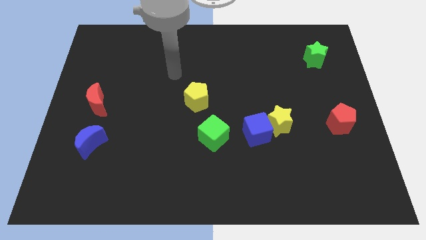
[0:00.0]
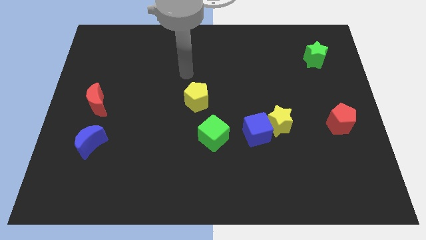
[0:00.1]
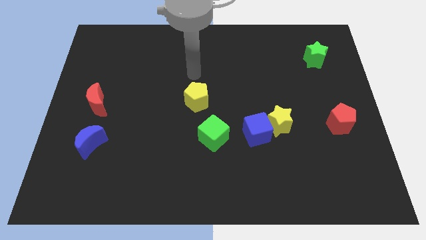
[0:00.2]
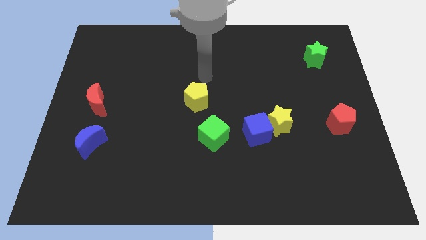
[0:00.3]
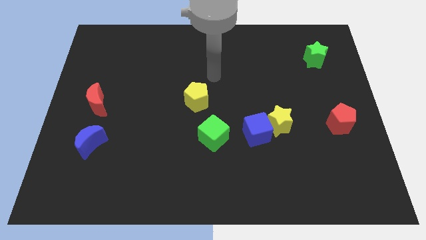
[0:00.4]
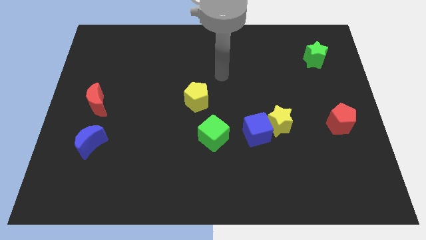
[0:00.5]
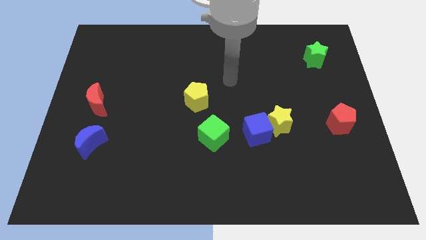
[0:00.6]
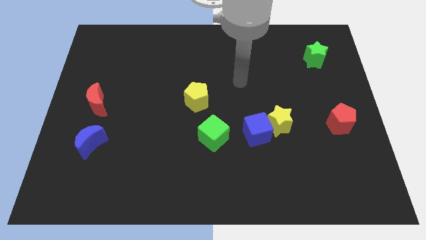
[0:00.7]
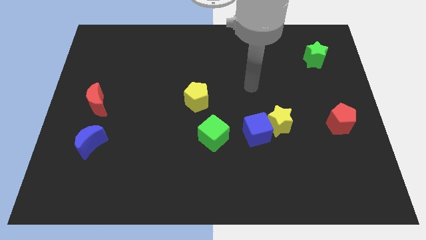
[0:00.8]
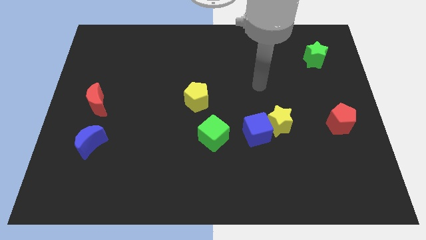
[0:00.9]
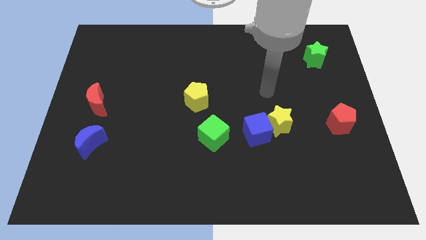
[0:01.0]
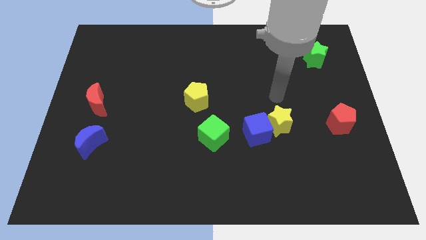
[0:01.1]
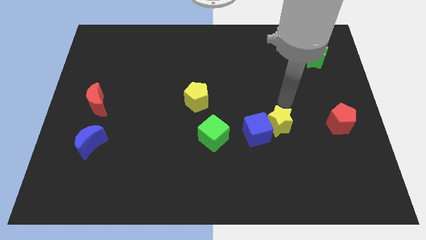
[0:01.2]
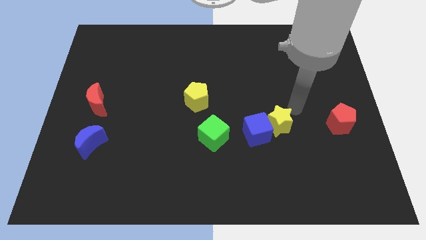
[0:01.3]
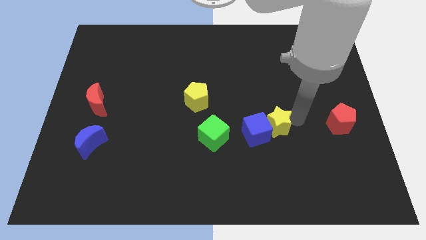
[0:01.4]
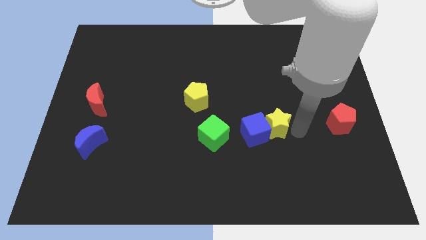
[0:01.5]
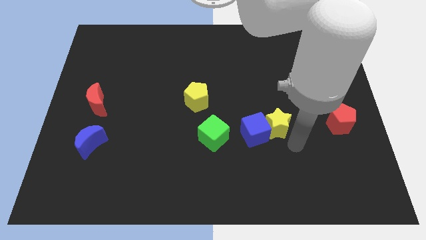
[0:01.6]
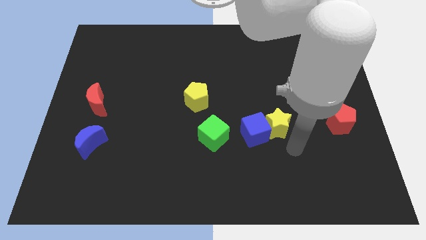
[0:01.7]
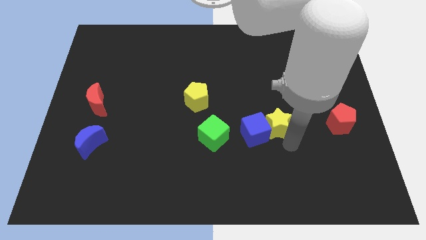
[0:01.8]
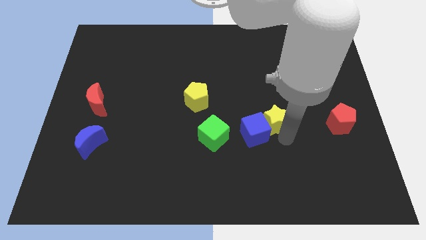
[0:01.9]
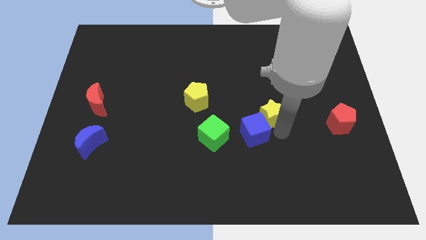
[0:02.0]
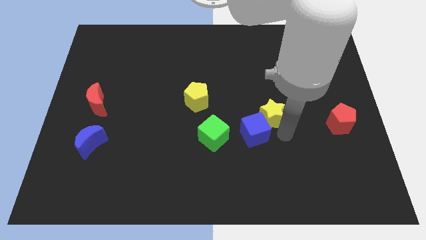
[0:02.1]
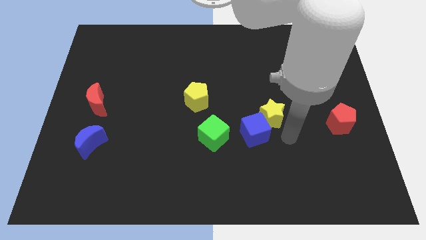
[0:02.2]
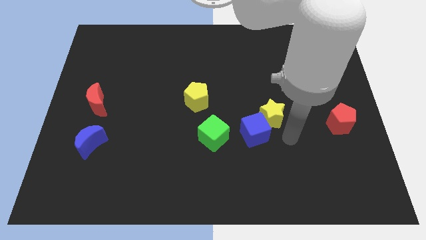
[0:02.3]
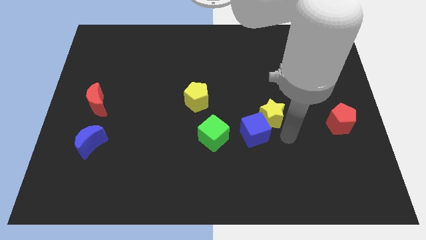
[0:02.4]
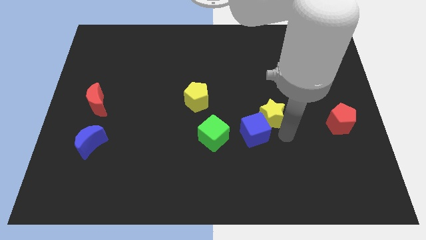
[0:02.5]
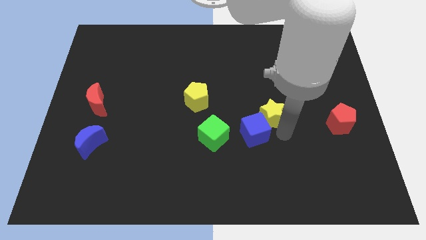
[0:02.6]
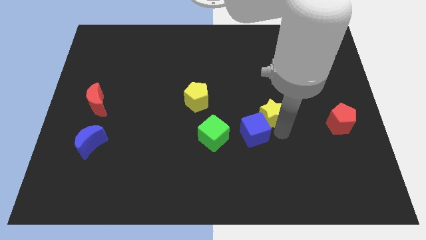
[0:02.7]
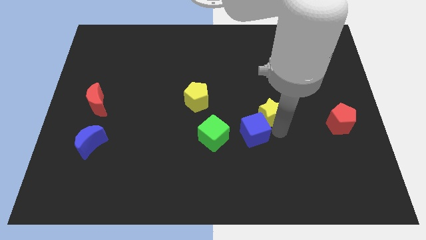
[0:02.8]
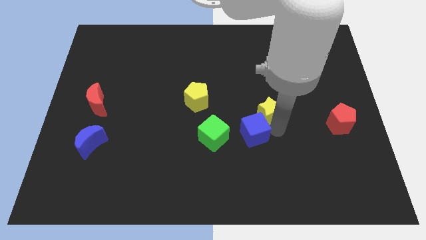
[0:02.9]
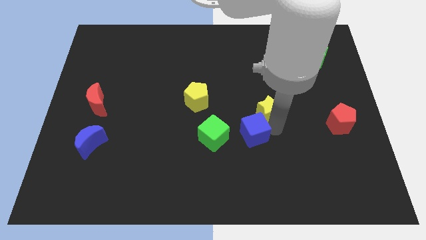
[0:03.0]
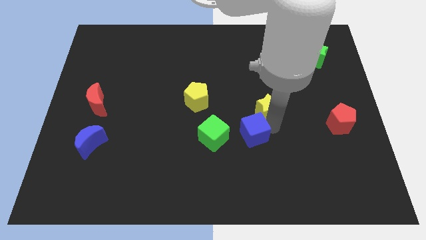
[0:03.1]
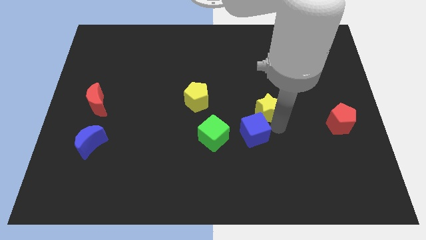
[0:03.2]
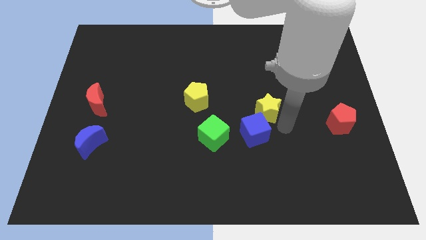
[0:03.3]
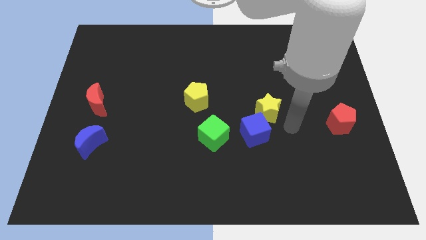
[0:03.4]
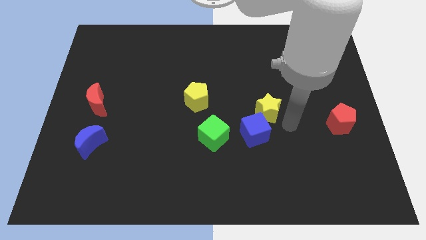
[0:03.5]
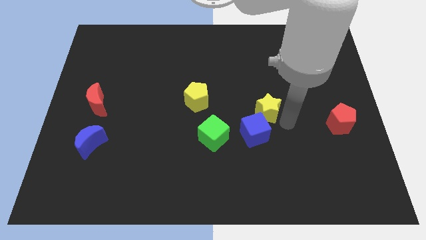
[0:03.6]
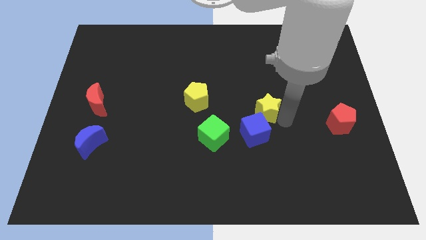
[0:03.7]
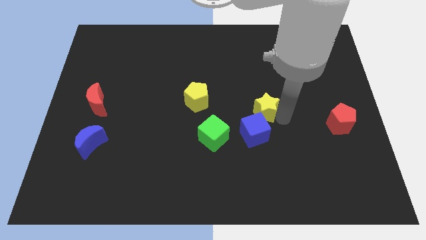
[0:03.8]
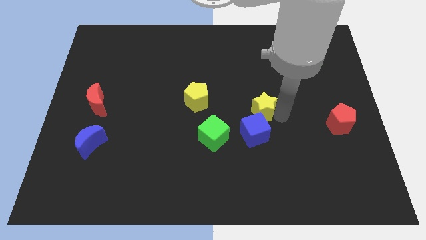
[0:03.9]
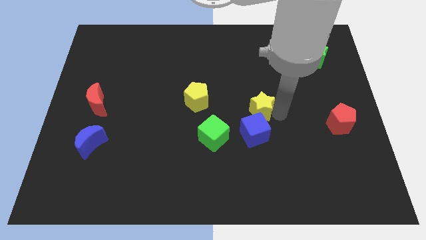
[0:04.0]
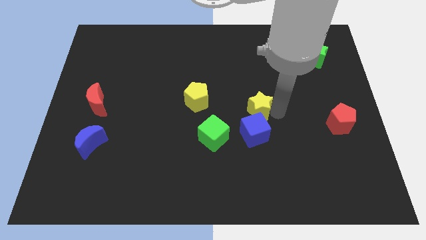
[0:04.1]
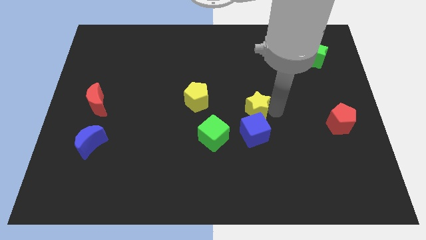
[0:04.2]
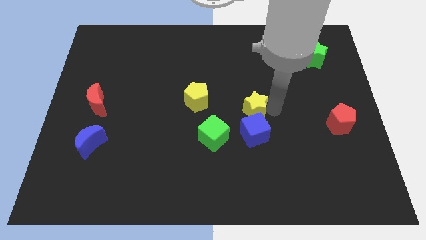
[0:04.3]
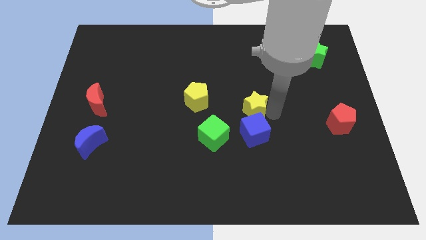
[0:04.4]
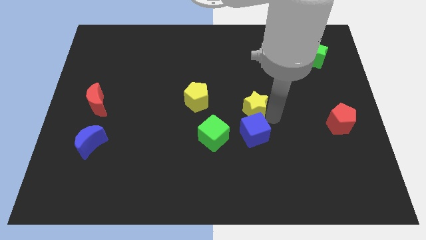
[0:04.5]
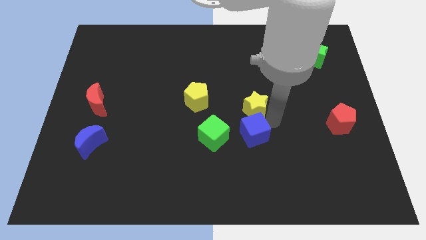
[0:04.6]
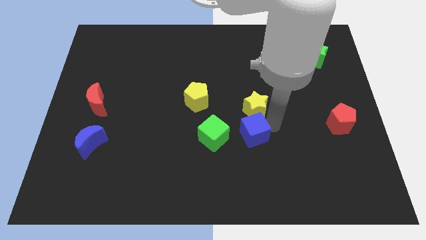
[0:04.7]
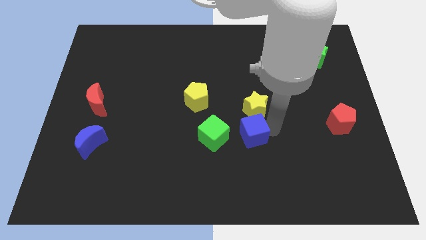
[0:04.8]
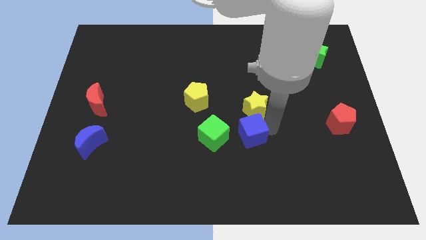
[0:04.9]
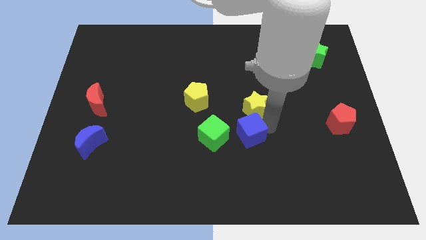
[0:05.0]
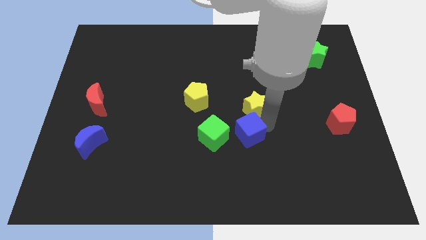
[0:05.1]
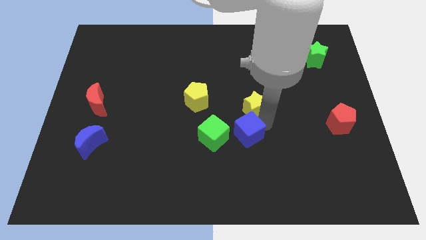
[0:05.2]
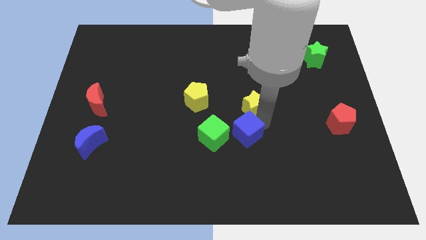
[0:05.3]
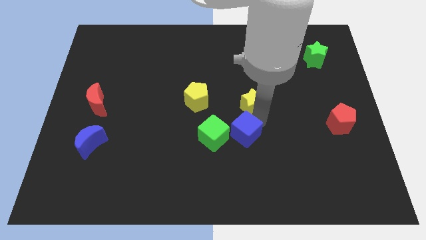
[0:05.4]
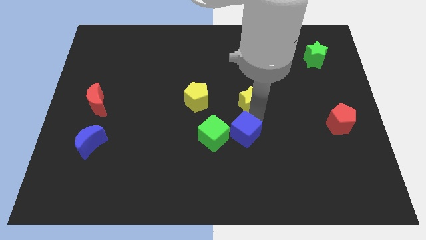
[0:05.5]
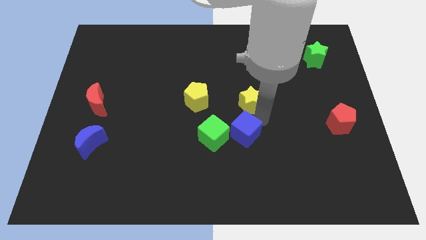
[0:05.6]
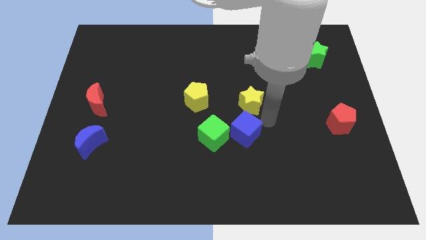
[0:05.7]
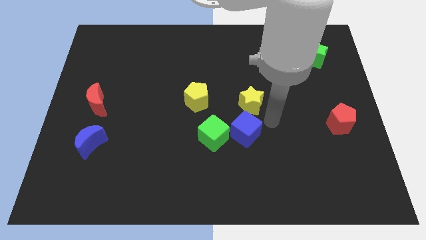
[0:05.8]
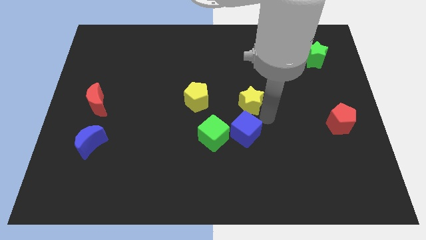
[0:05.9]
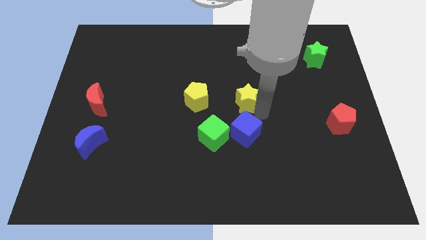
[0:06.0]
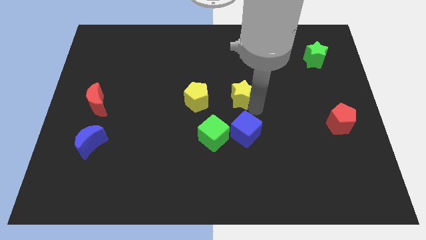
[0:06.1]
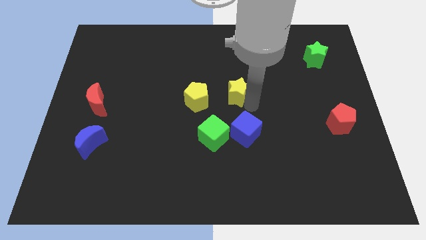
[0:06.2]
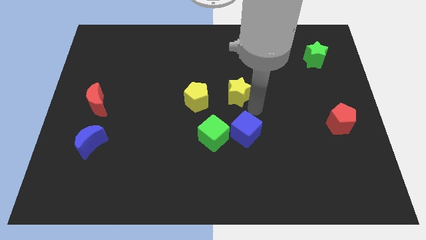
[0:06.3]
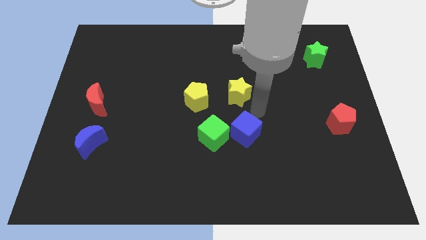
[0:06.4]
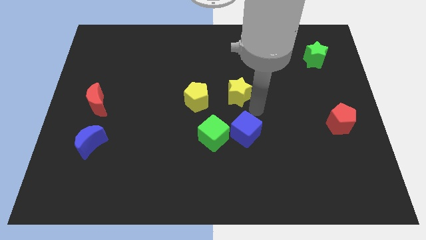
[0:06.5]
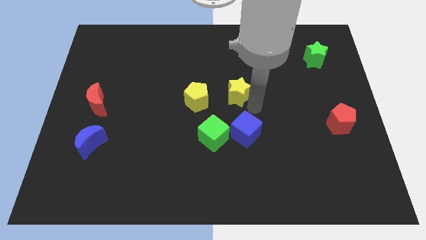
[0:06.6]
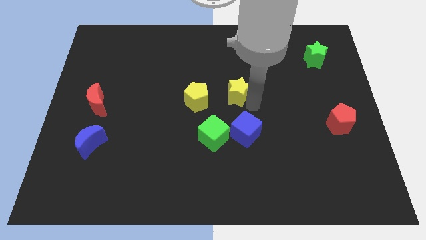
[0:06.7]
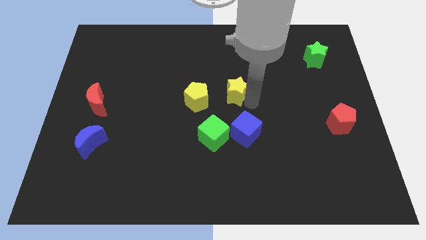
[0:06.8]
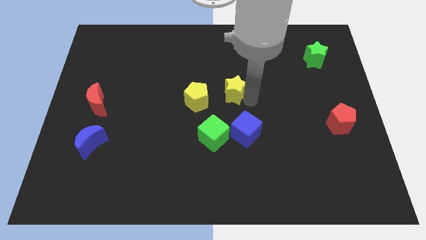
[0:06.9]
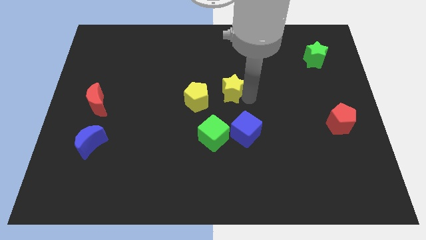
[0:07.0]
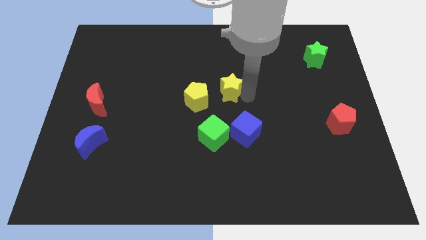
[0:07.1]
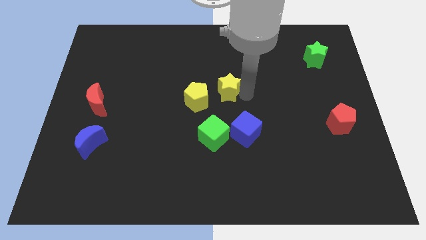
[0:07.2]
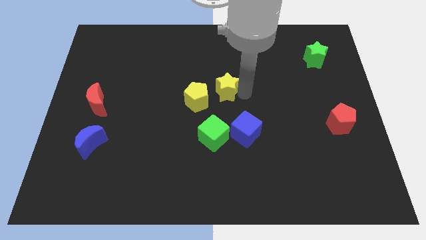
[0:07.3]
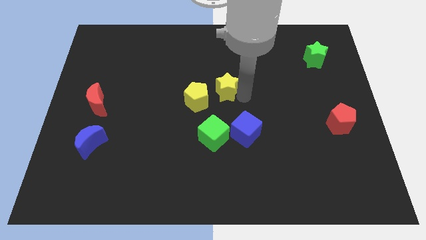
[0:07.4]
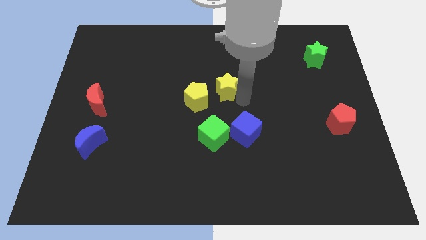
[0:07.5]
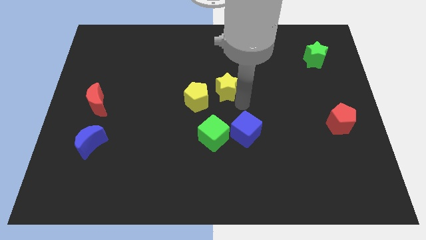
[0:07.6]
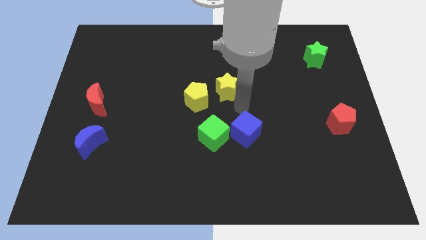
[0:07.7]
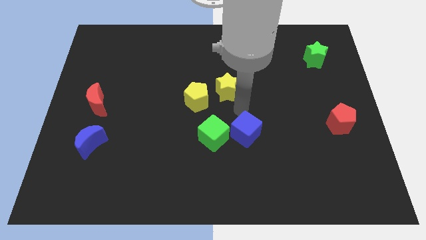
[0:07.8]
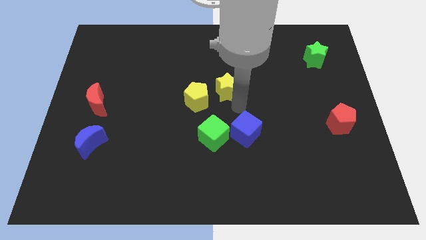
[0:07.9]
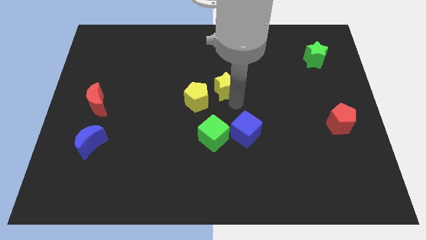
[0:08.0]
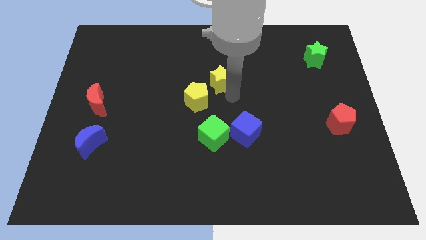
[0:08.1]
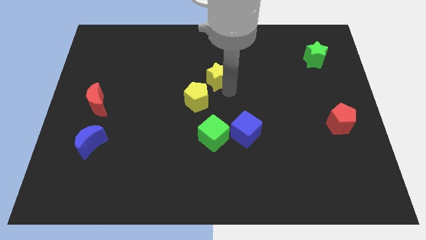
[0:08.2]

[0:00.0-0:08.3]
move the yellow star above the yellow pentagon
